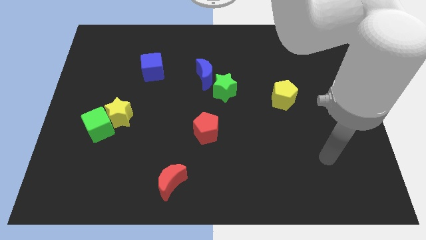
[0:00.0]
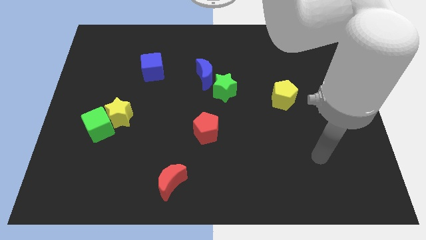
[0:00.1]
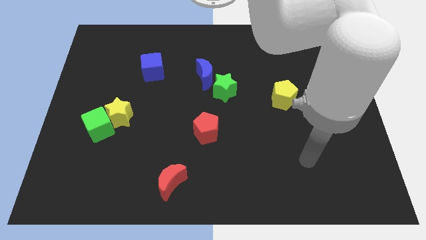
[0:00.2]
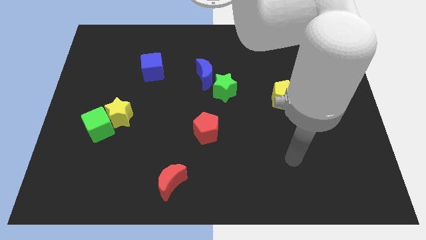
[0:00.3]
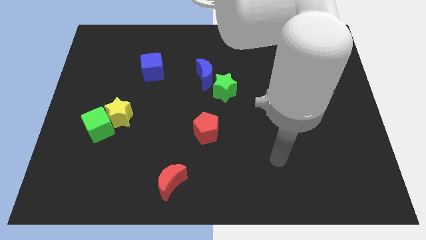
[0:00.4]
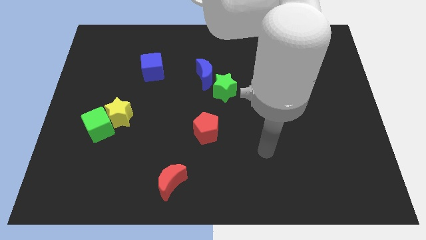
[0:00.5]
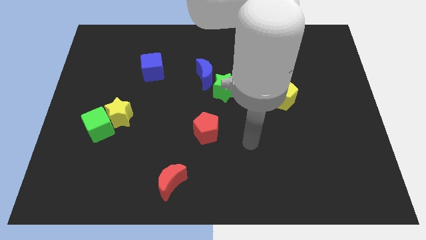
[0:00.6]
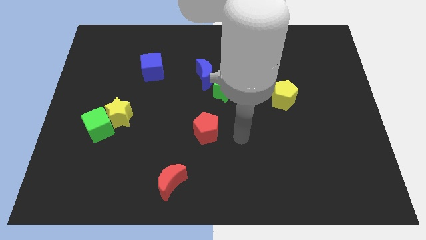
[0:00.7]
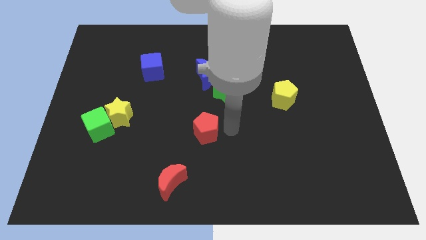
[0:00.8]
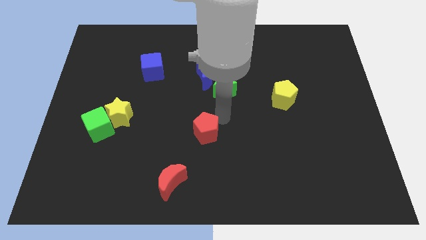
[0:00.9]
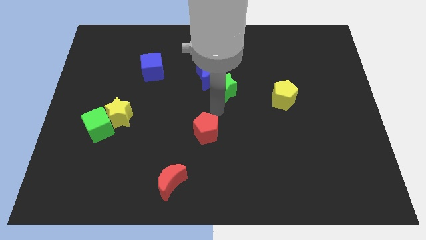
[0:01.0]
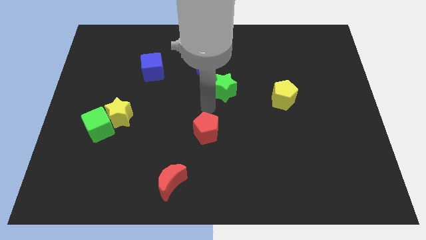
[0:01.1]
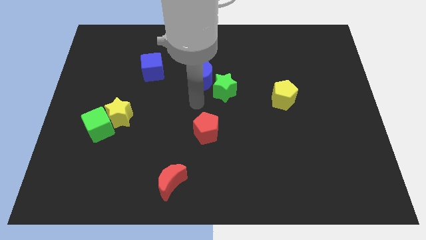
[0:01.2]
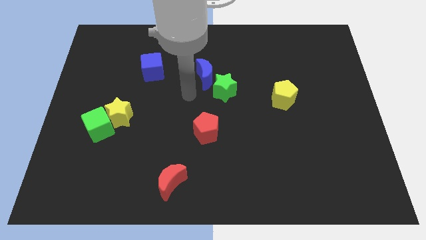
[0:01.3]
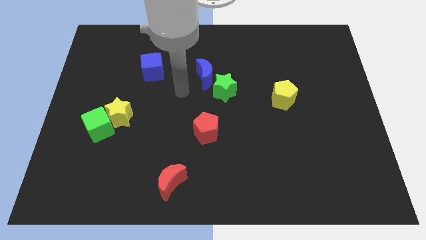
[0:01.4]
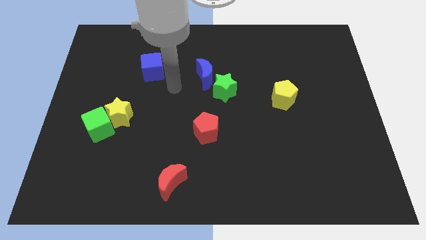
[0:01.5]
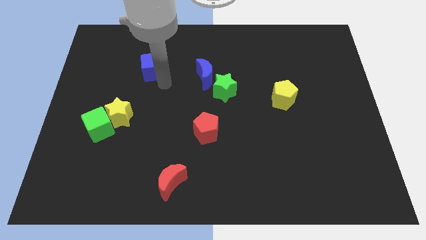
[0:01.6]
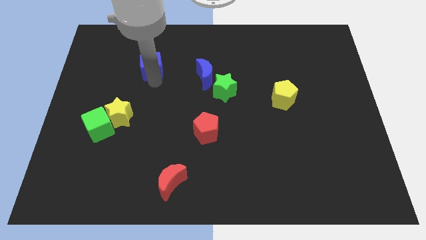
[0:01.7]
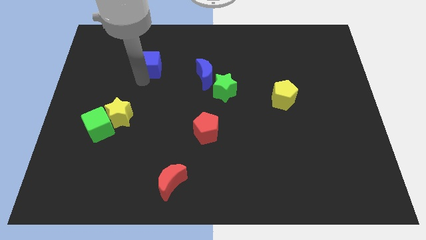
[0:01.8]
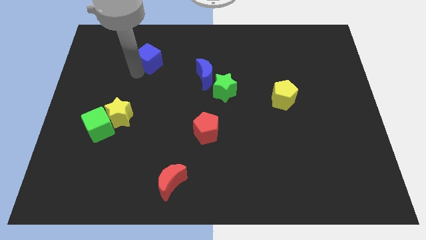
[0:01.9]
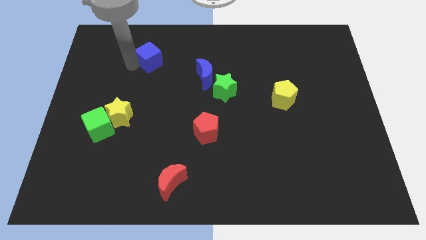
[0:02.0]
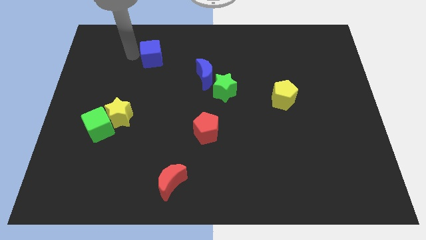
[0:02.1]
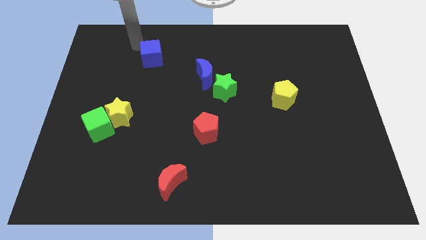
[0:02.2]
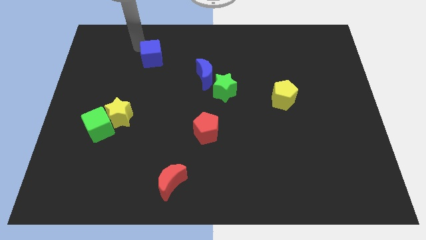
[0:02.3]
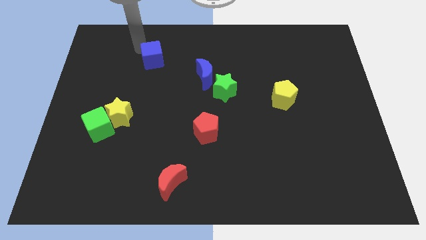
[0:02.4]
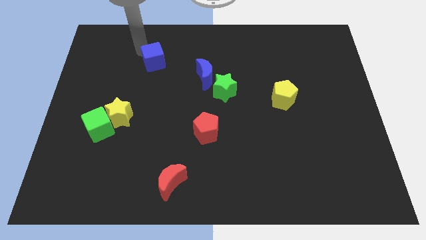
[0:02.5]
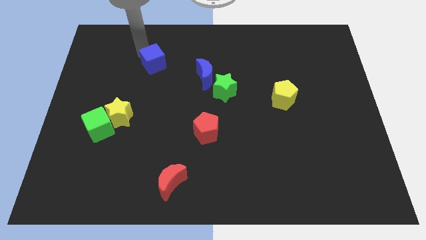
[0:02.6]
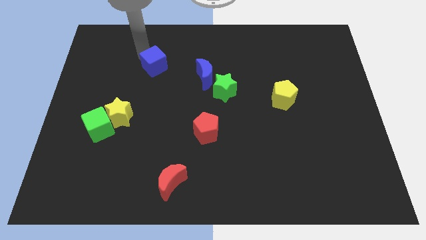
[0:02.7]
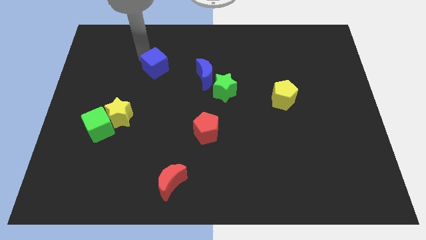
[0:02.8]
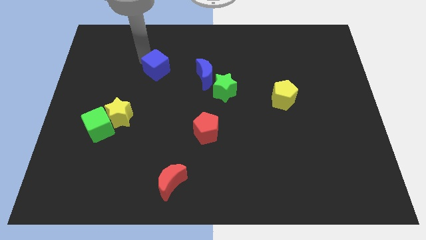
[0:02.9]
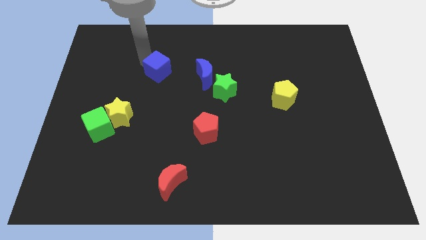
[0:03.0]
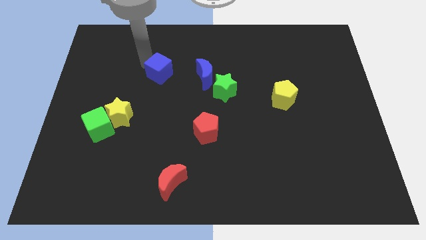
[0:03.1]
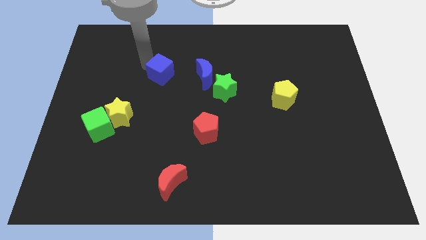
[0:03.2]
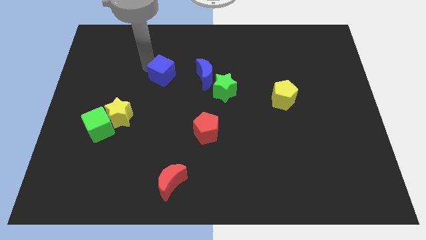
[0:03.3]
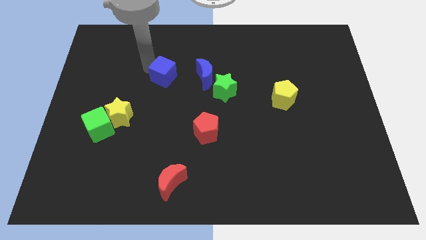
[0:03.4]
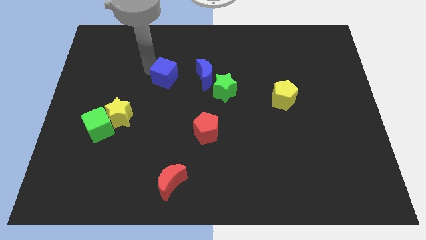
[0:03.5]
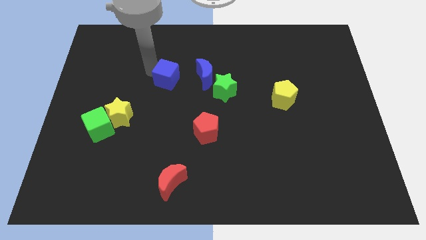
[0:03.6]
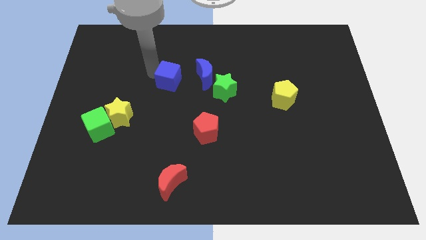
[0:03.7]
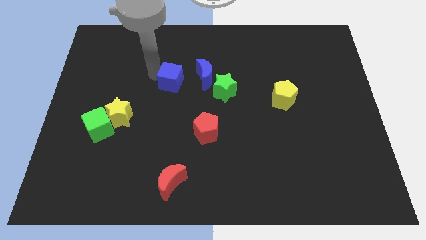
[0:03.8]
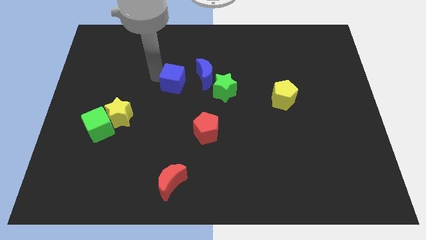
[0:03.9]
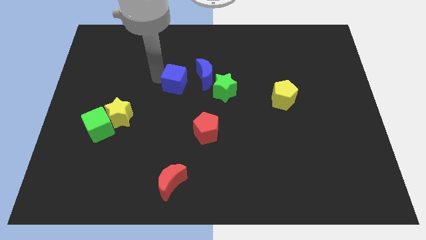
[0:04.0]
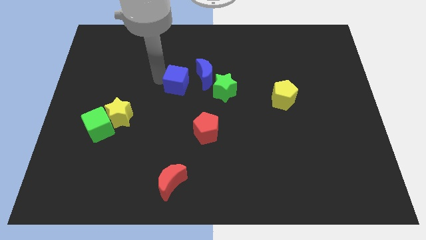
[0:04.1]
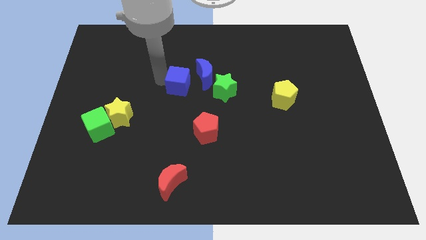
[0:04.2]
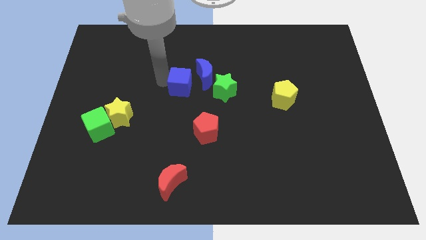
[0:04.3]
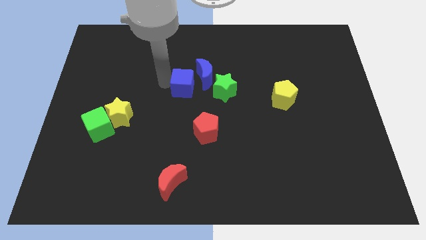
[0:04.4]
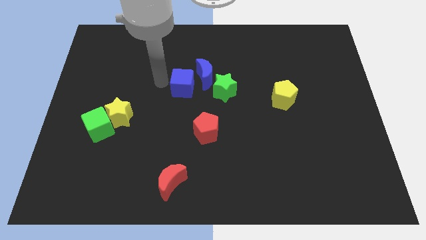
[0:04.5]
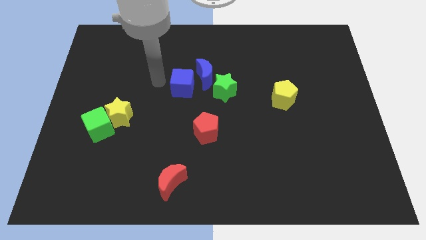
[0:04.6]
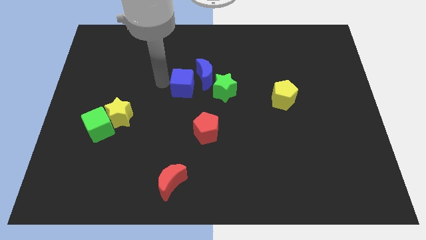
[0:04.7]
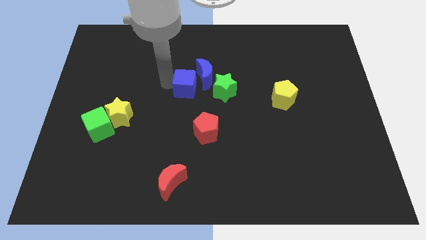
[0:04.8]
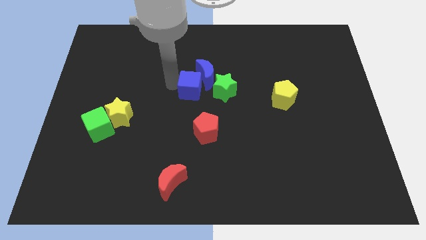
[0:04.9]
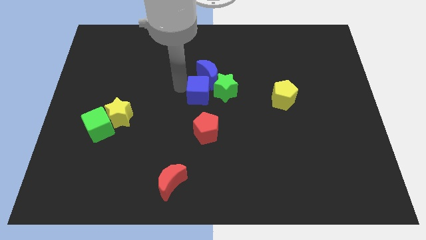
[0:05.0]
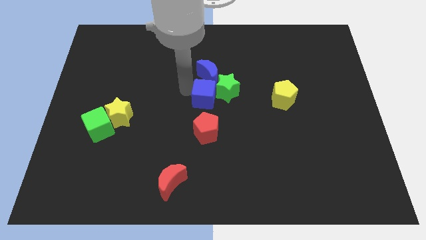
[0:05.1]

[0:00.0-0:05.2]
push the blue cube towards the green star

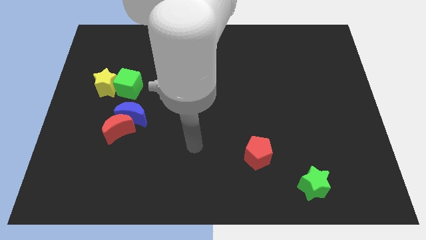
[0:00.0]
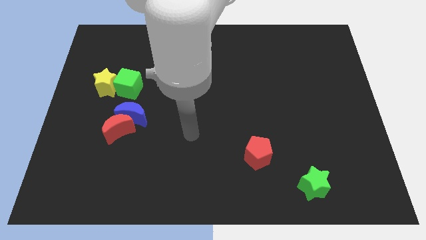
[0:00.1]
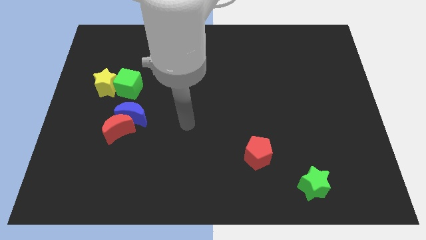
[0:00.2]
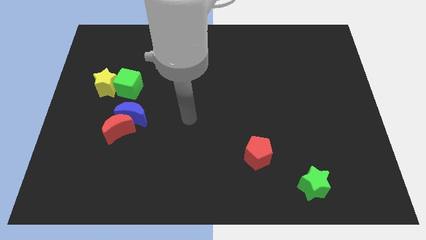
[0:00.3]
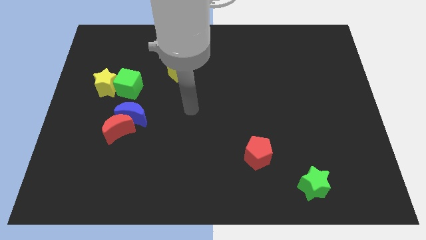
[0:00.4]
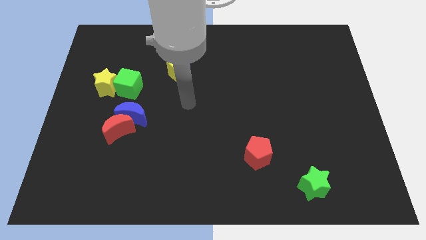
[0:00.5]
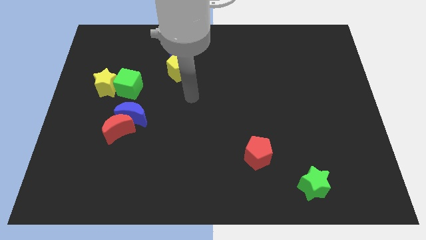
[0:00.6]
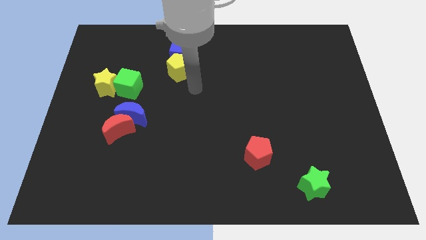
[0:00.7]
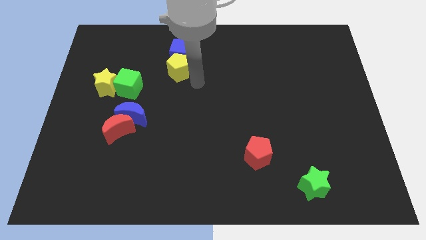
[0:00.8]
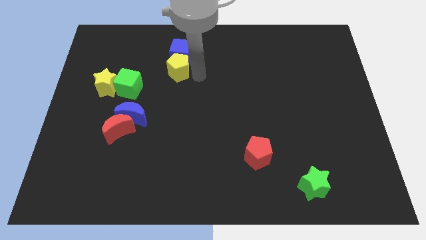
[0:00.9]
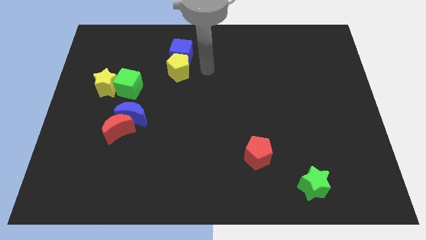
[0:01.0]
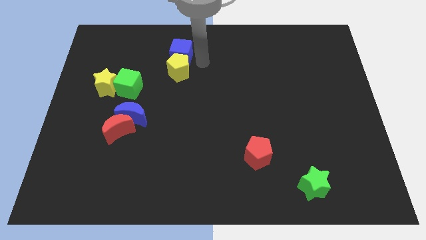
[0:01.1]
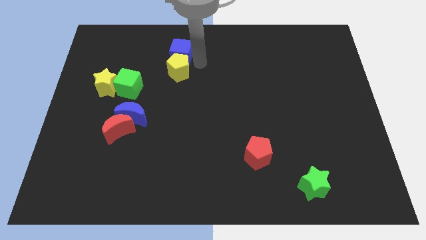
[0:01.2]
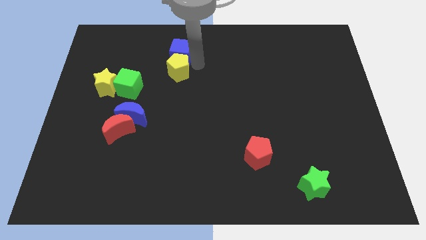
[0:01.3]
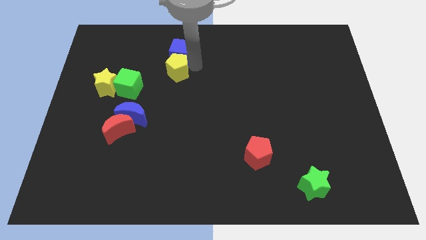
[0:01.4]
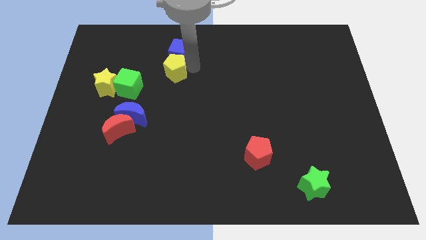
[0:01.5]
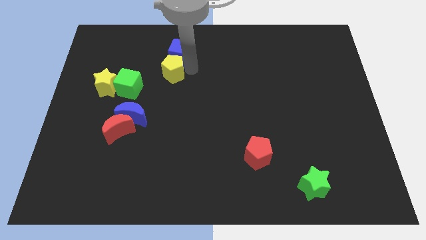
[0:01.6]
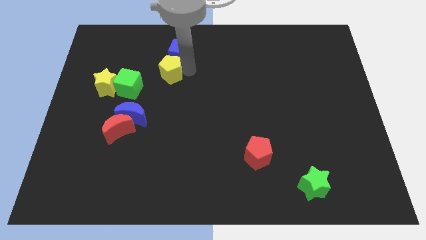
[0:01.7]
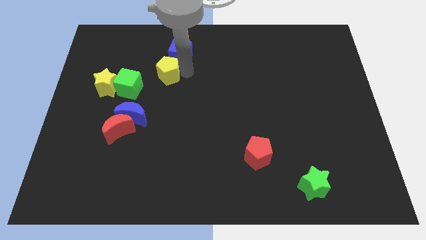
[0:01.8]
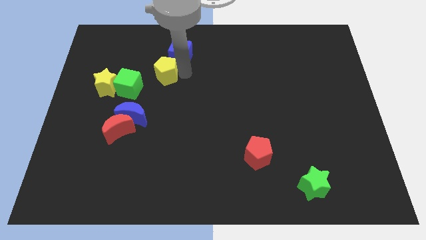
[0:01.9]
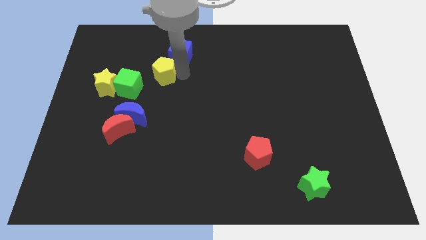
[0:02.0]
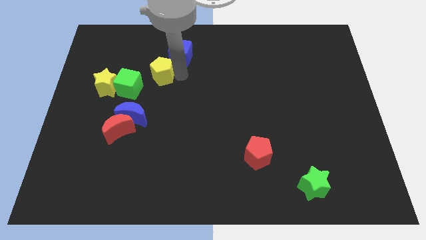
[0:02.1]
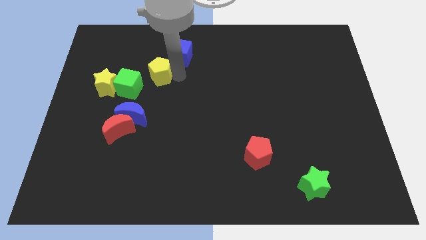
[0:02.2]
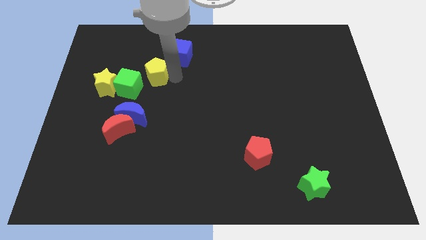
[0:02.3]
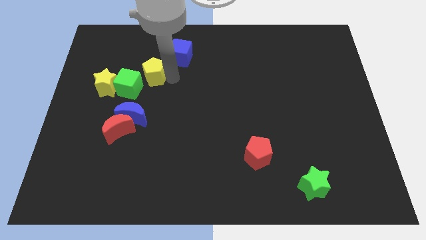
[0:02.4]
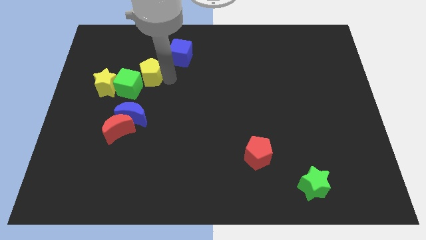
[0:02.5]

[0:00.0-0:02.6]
slide the yellow pentagon close to the green cube
